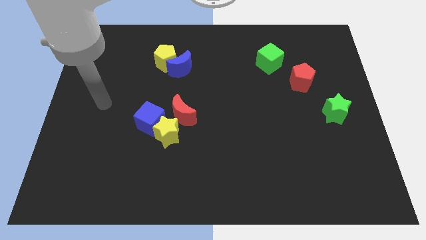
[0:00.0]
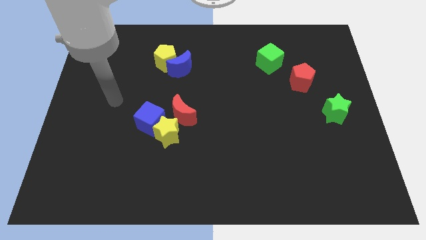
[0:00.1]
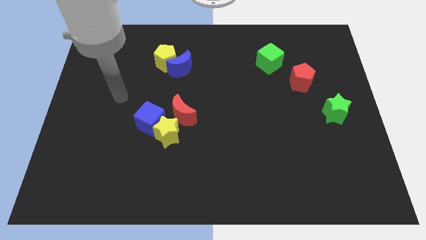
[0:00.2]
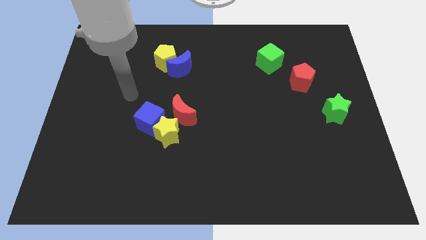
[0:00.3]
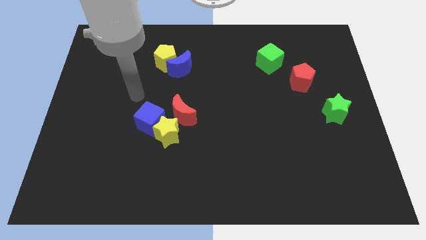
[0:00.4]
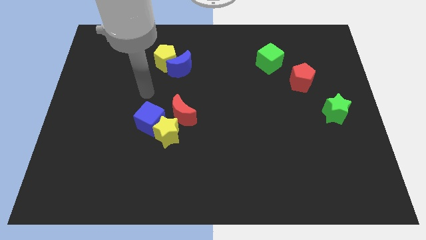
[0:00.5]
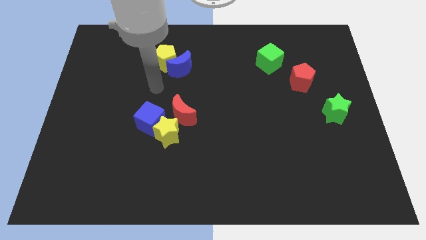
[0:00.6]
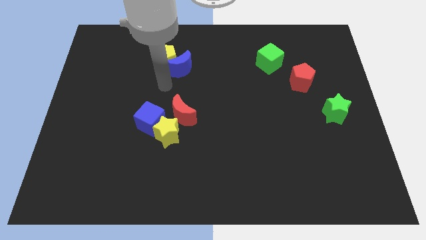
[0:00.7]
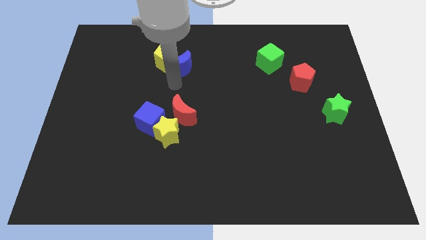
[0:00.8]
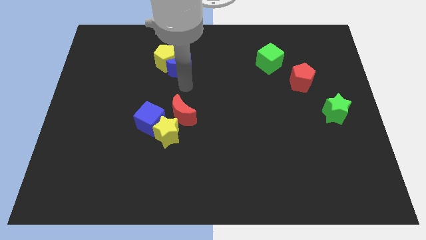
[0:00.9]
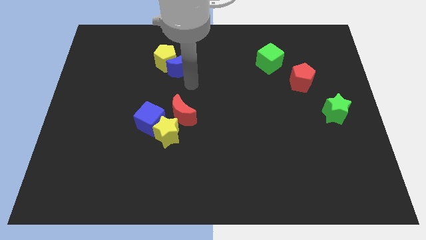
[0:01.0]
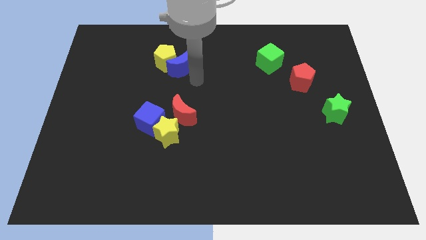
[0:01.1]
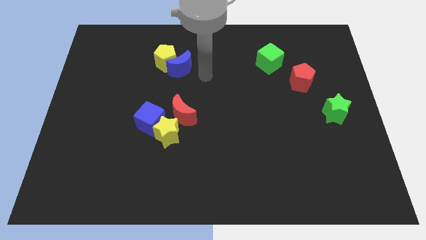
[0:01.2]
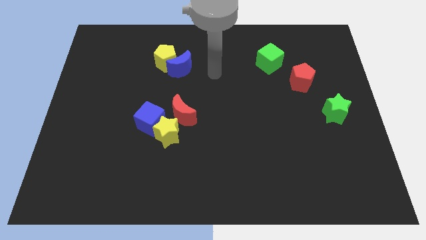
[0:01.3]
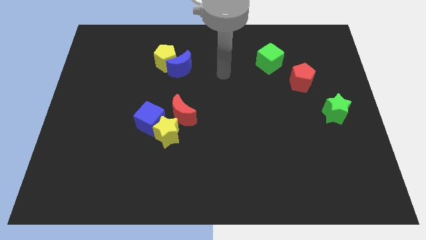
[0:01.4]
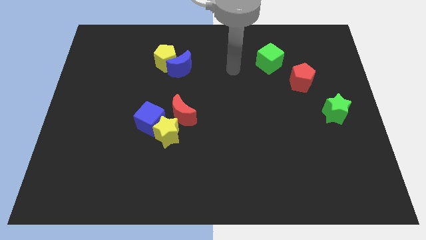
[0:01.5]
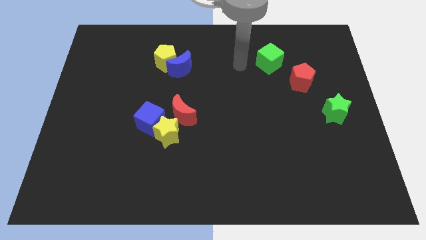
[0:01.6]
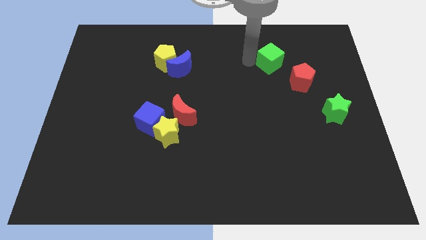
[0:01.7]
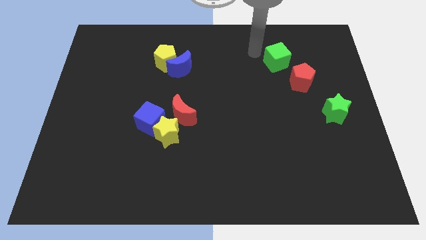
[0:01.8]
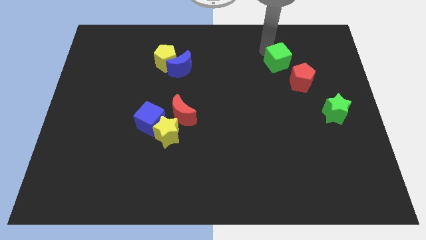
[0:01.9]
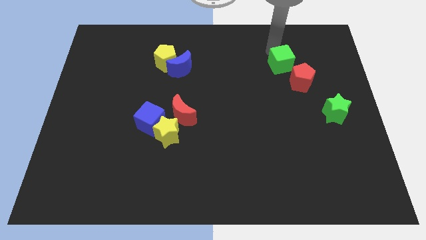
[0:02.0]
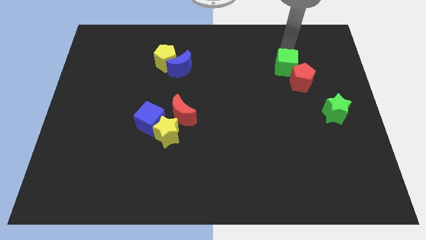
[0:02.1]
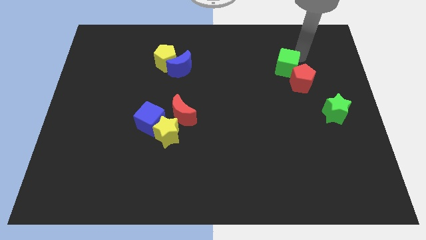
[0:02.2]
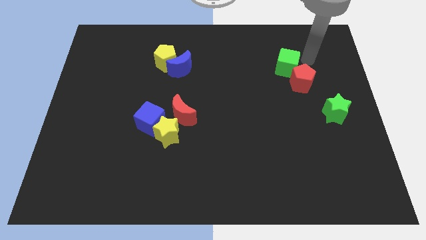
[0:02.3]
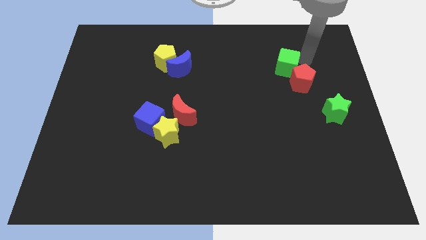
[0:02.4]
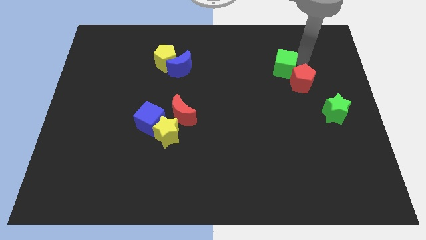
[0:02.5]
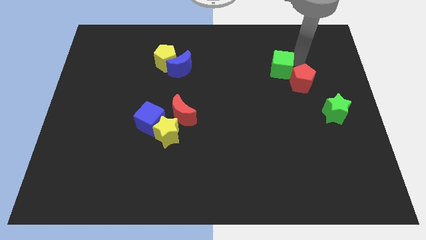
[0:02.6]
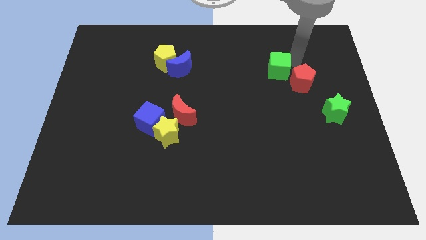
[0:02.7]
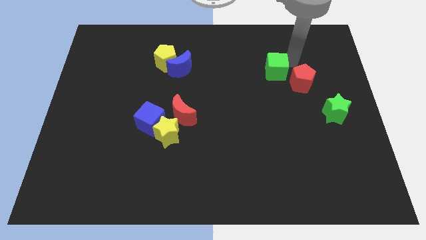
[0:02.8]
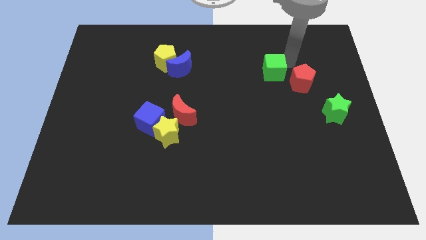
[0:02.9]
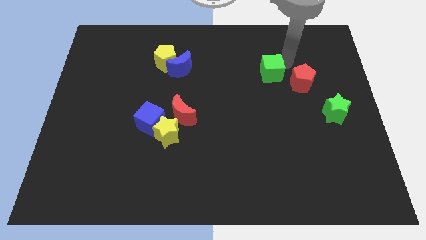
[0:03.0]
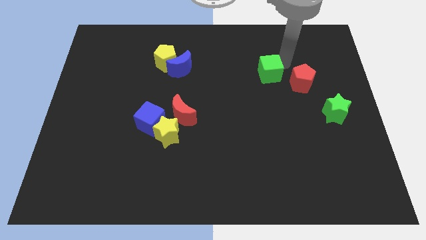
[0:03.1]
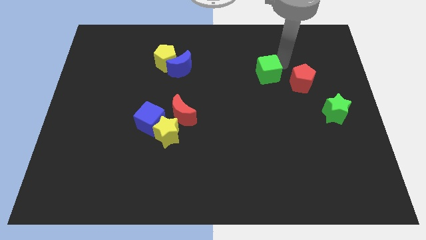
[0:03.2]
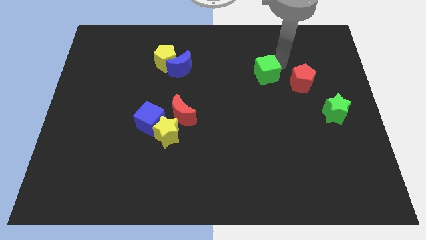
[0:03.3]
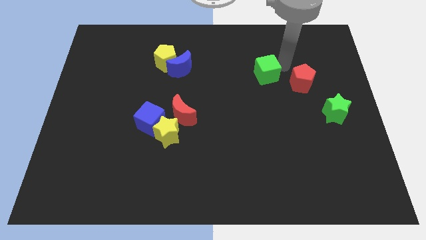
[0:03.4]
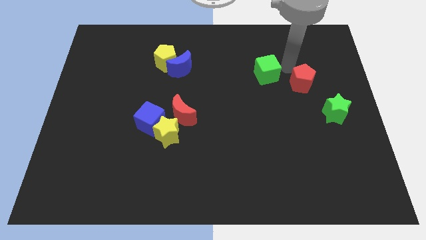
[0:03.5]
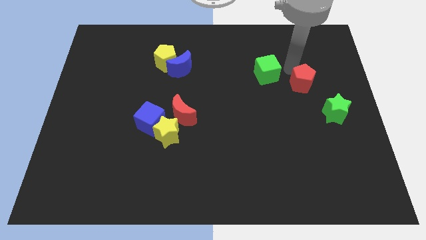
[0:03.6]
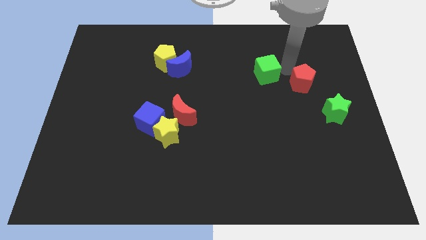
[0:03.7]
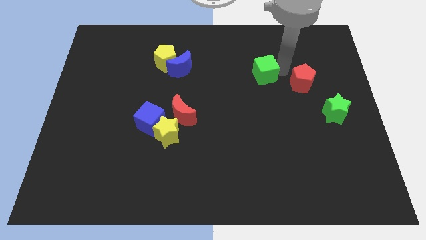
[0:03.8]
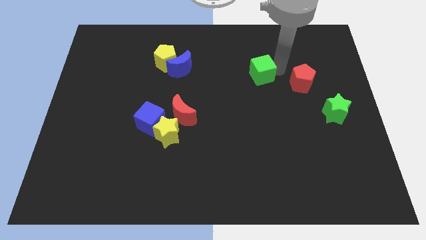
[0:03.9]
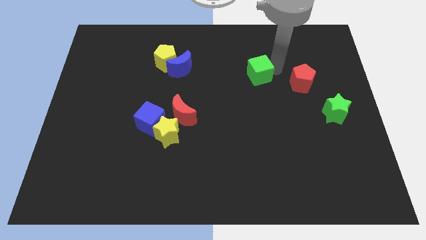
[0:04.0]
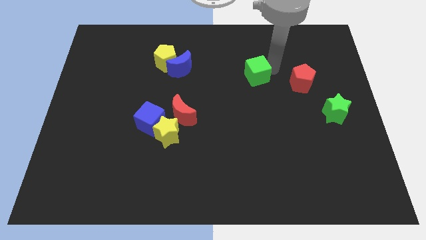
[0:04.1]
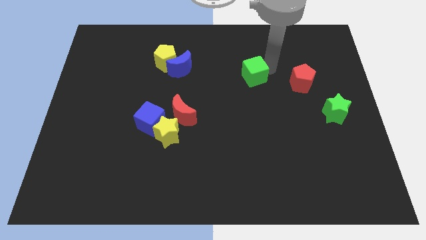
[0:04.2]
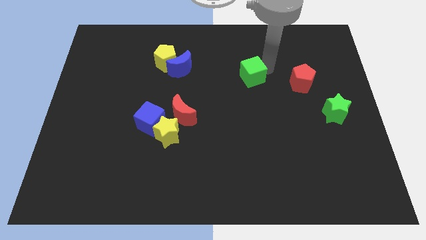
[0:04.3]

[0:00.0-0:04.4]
slightly push the green cube downwards and to the left diagonally

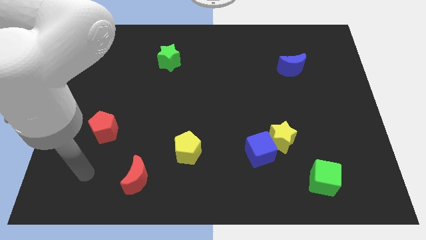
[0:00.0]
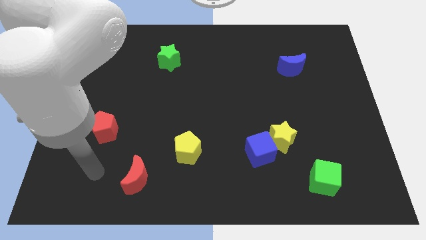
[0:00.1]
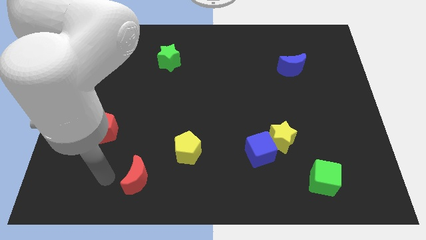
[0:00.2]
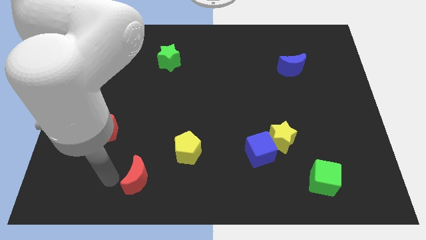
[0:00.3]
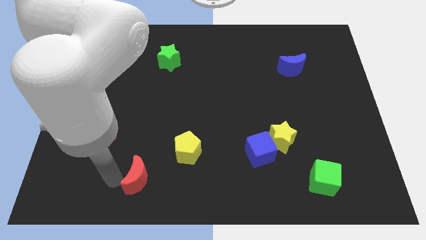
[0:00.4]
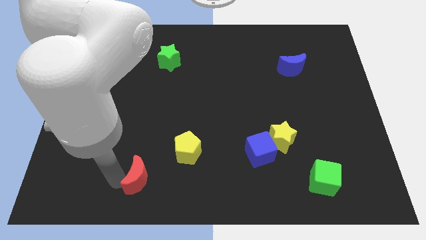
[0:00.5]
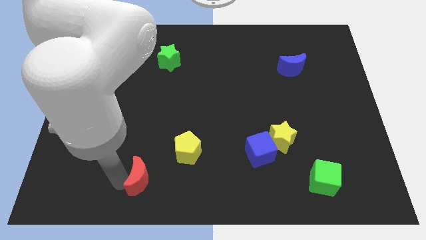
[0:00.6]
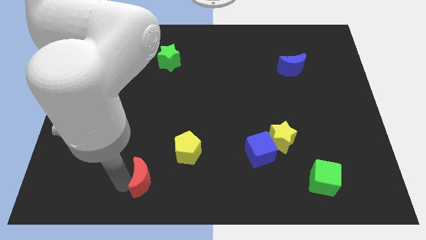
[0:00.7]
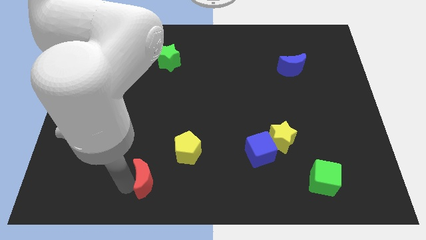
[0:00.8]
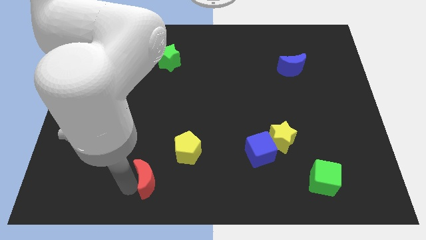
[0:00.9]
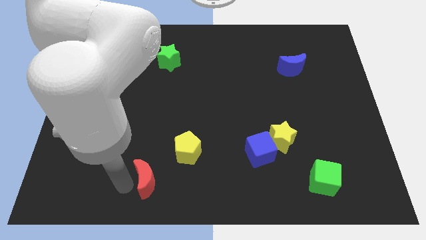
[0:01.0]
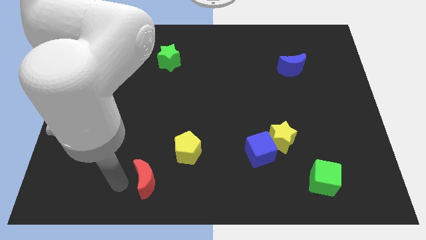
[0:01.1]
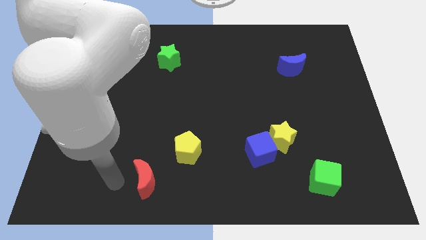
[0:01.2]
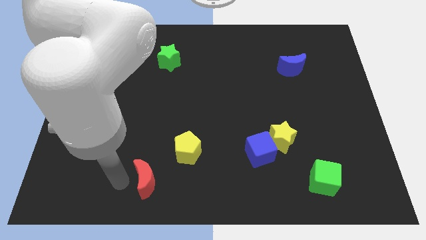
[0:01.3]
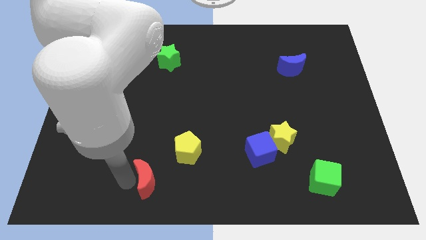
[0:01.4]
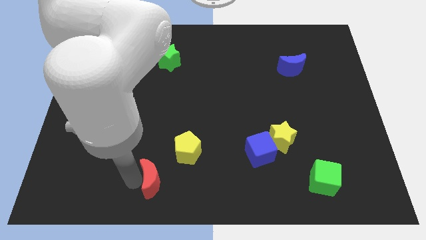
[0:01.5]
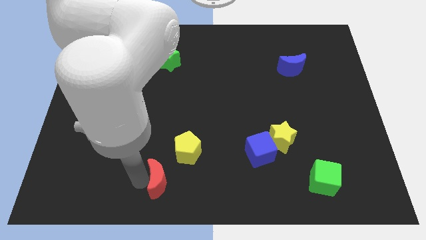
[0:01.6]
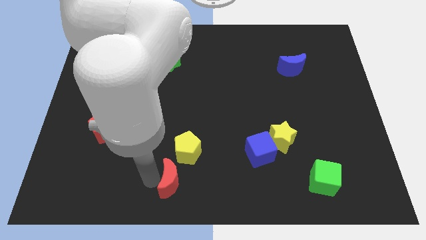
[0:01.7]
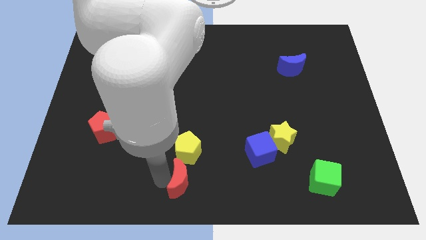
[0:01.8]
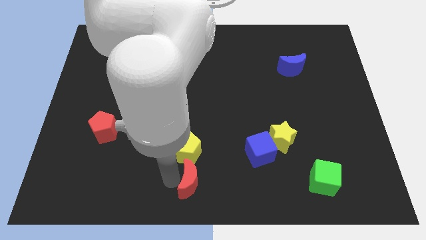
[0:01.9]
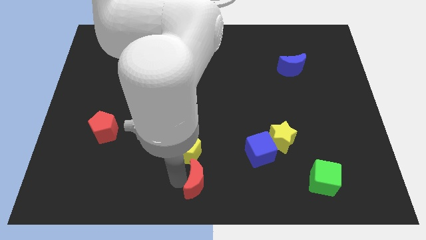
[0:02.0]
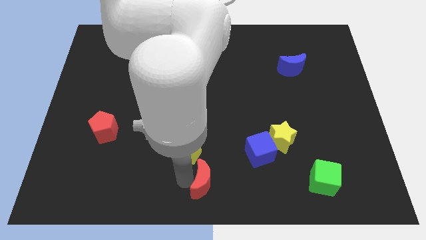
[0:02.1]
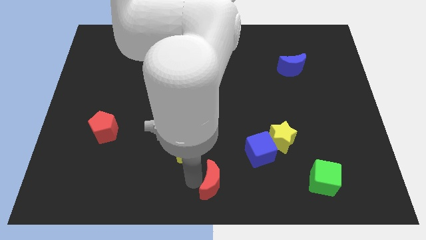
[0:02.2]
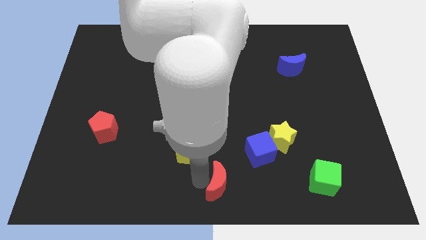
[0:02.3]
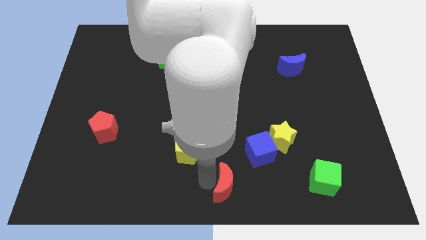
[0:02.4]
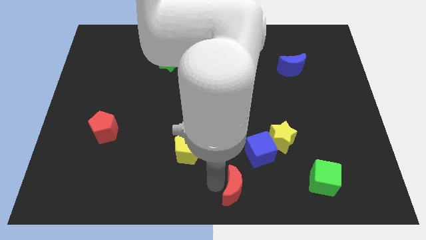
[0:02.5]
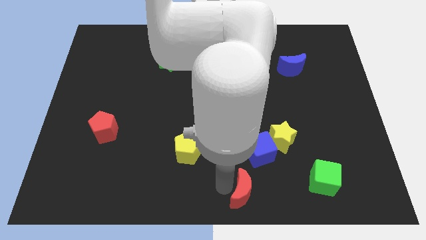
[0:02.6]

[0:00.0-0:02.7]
slide the red moon to the right

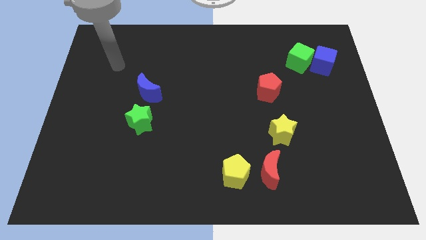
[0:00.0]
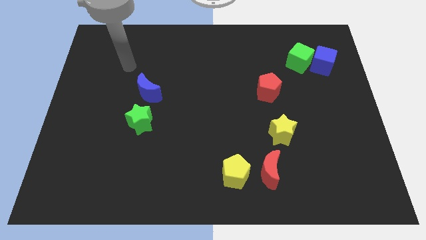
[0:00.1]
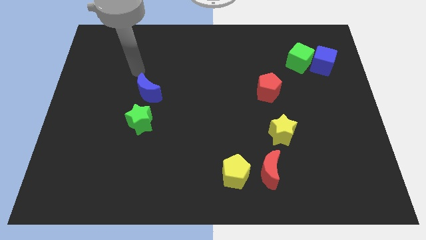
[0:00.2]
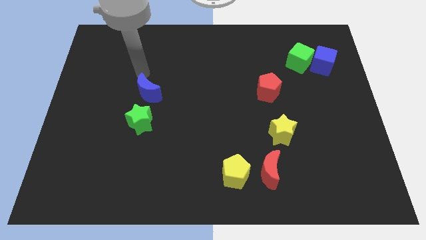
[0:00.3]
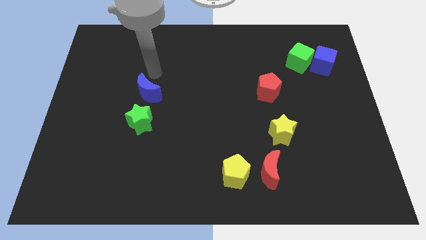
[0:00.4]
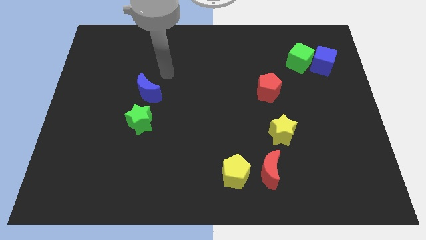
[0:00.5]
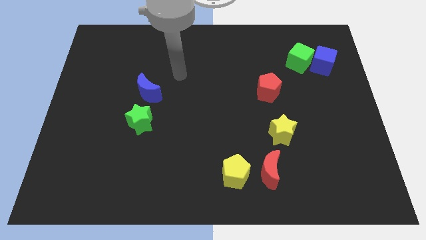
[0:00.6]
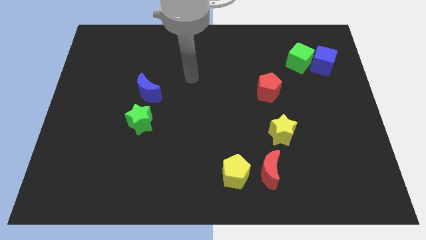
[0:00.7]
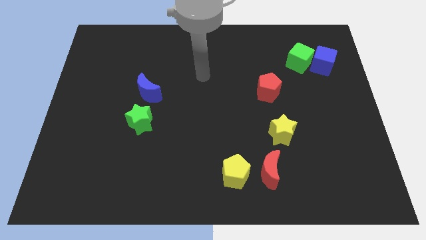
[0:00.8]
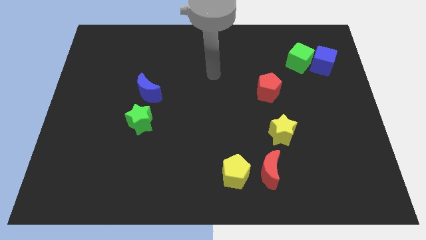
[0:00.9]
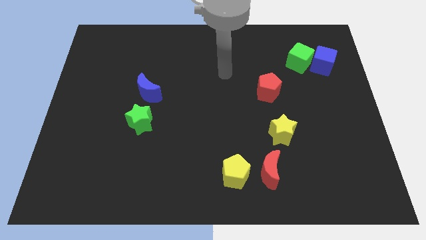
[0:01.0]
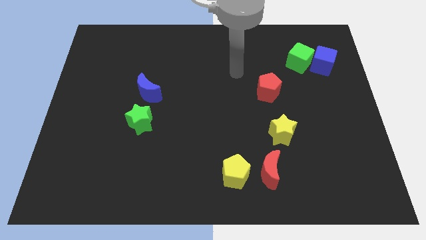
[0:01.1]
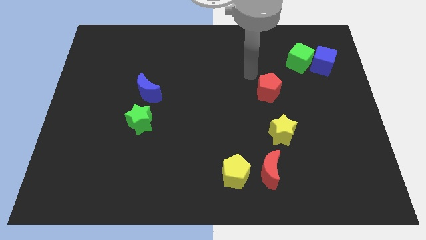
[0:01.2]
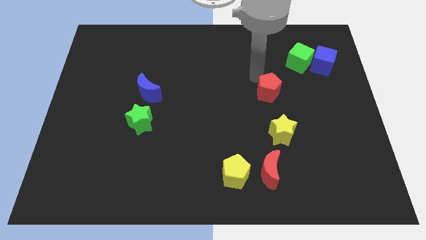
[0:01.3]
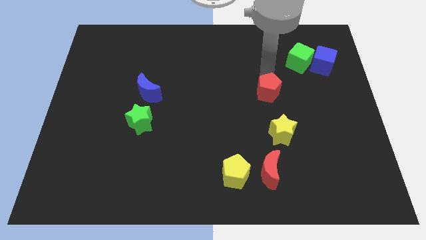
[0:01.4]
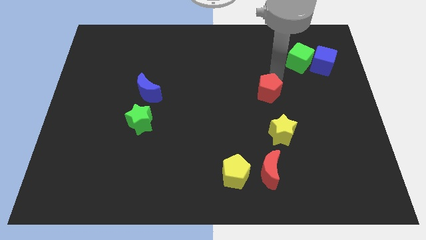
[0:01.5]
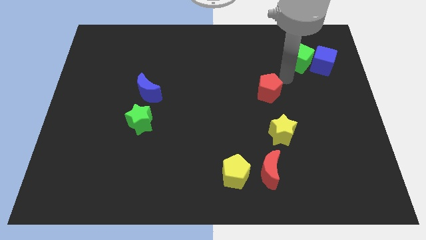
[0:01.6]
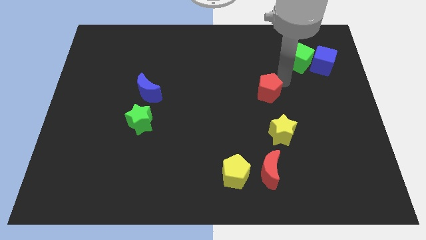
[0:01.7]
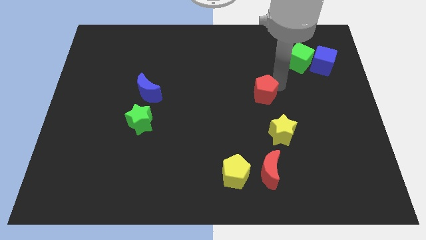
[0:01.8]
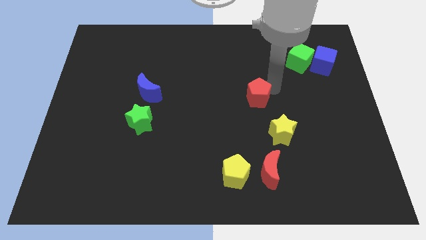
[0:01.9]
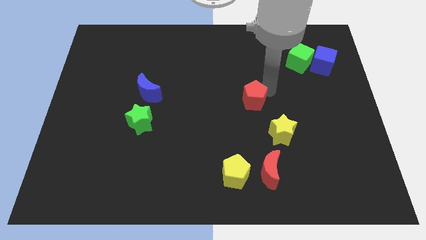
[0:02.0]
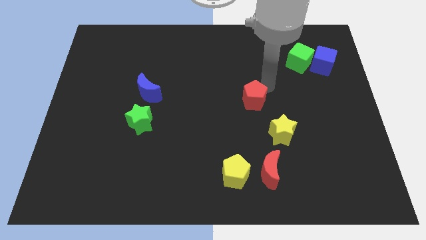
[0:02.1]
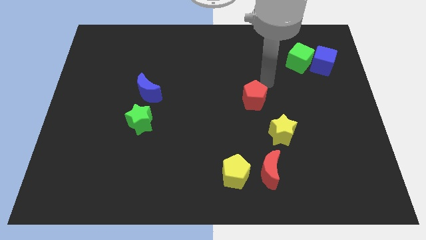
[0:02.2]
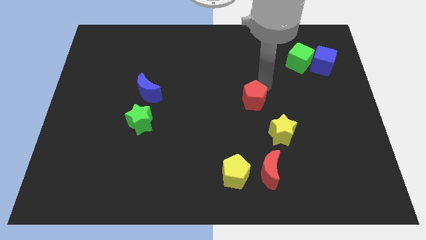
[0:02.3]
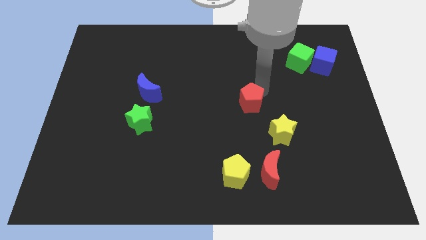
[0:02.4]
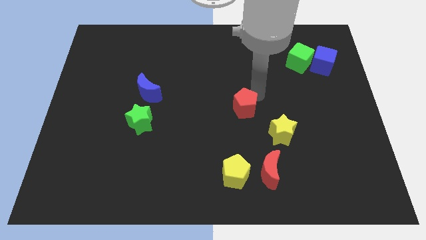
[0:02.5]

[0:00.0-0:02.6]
slightly push the red pentagon downwards and left diagonally
